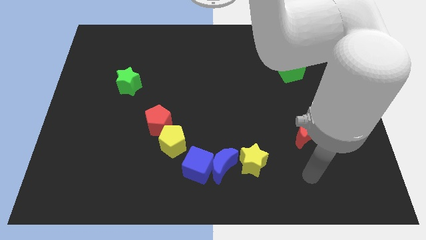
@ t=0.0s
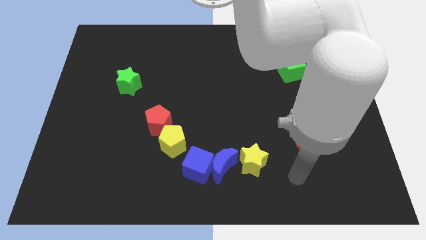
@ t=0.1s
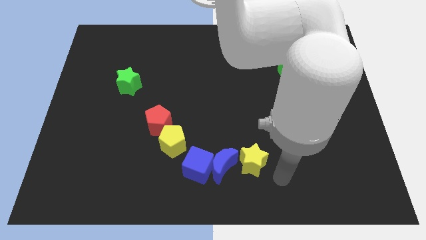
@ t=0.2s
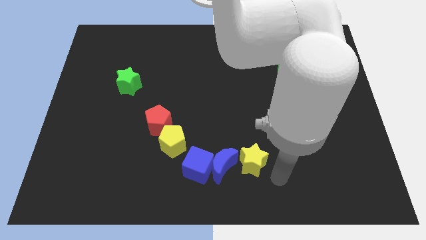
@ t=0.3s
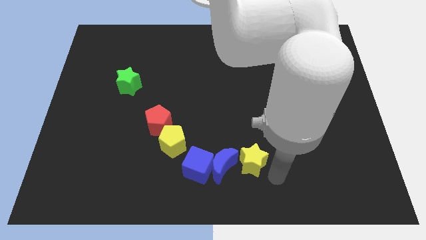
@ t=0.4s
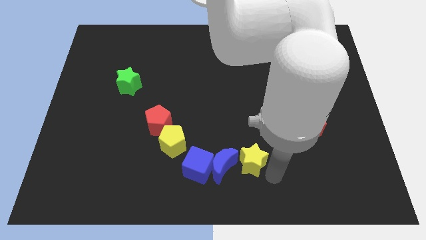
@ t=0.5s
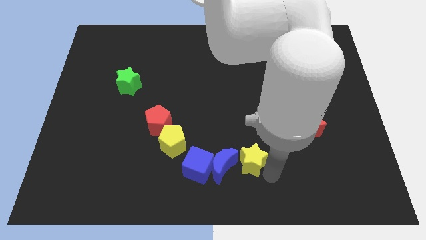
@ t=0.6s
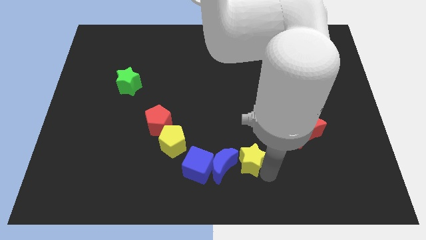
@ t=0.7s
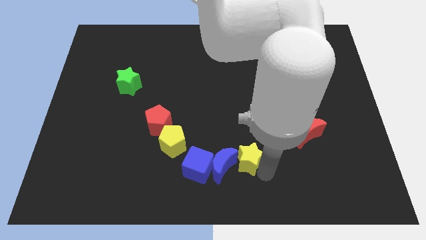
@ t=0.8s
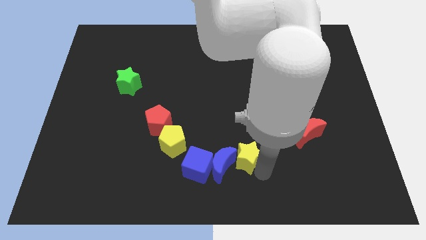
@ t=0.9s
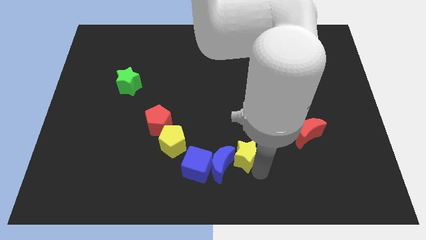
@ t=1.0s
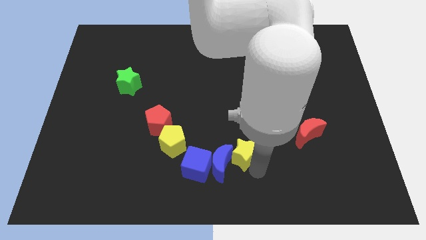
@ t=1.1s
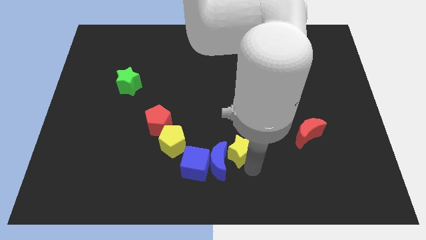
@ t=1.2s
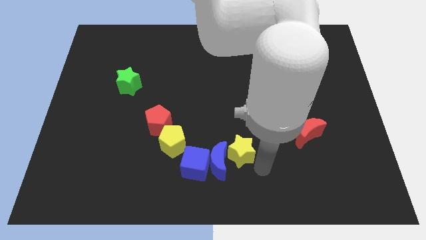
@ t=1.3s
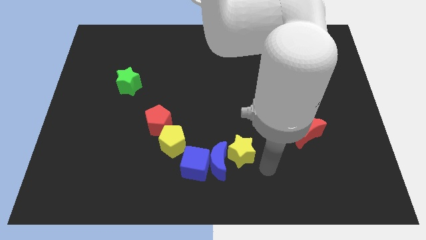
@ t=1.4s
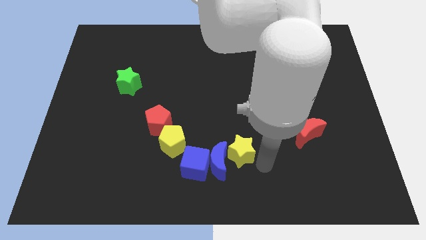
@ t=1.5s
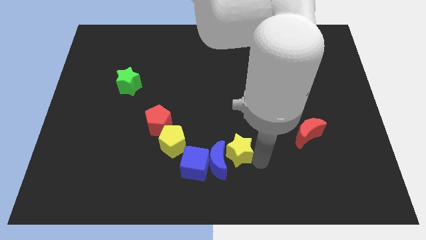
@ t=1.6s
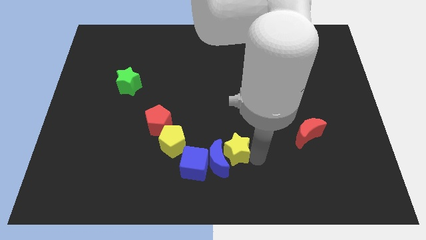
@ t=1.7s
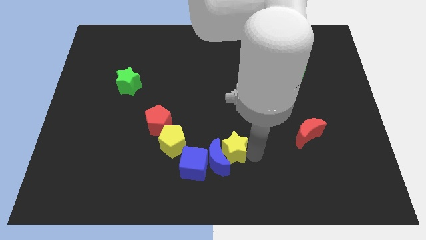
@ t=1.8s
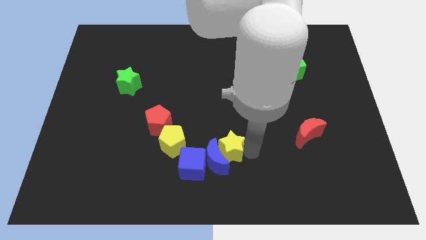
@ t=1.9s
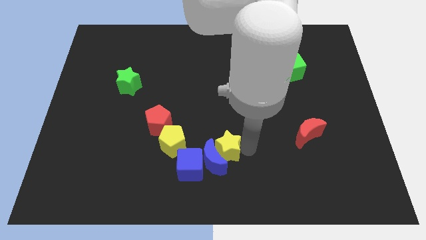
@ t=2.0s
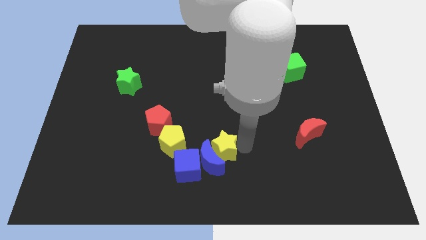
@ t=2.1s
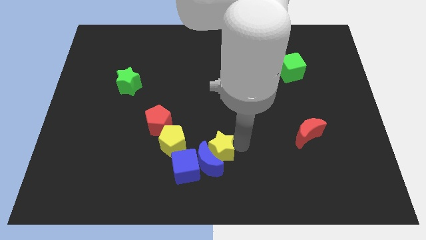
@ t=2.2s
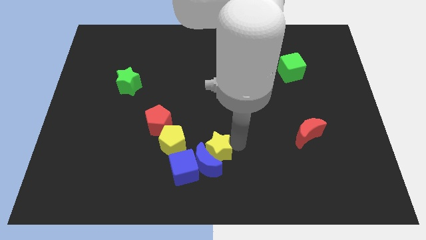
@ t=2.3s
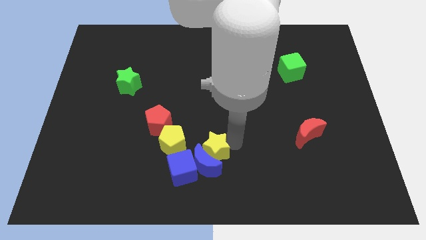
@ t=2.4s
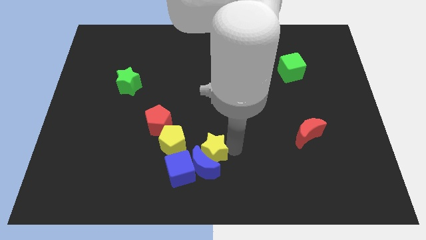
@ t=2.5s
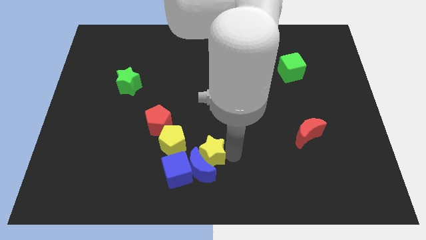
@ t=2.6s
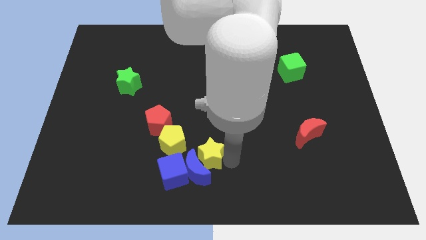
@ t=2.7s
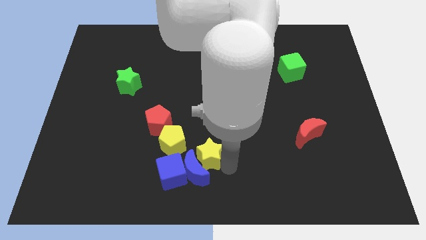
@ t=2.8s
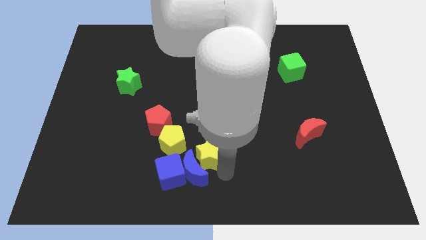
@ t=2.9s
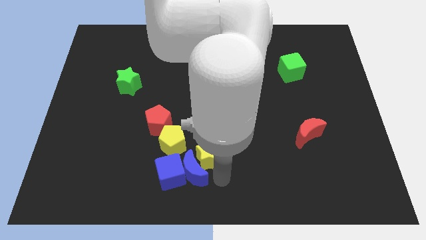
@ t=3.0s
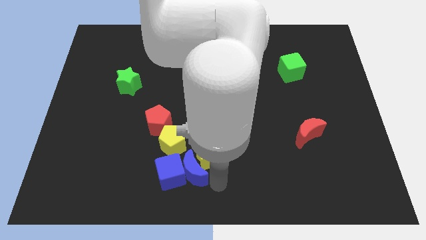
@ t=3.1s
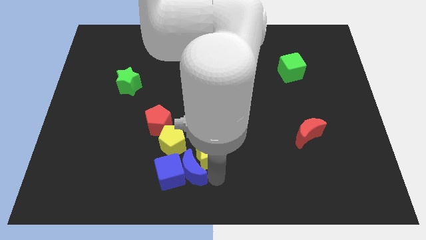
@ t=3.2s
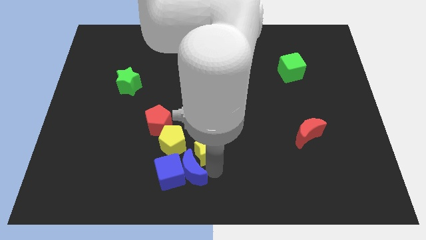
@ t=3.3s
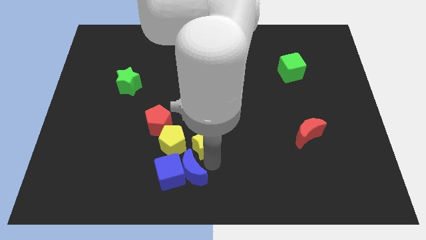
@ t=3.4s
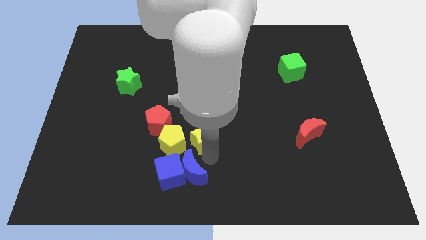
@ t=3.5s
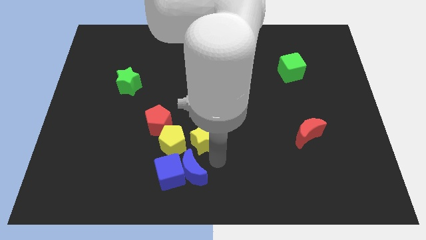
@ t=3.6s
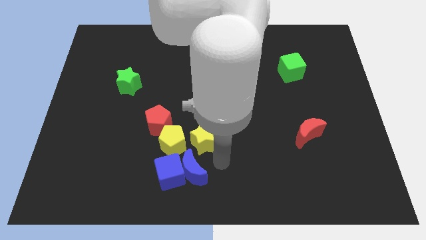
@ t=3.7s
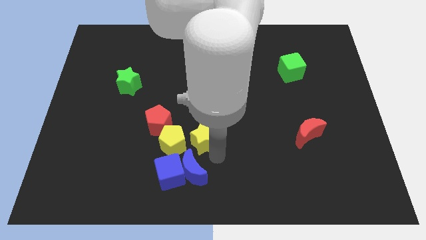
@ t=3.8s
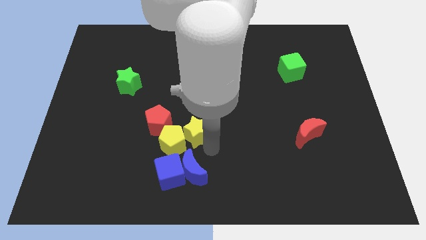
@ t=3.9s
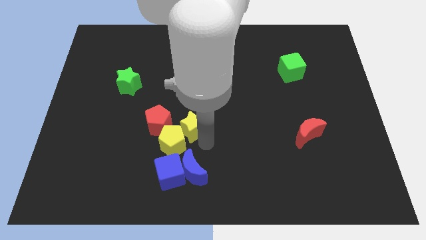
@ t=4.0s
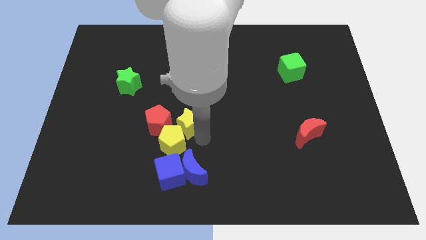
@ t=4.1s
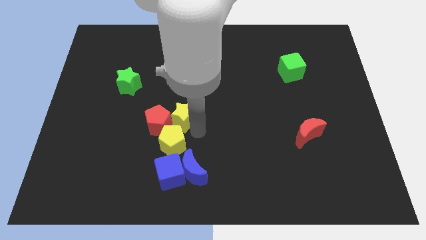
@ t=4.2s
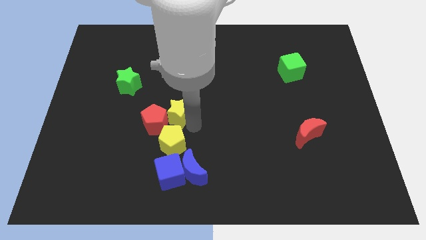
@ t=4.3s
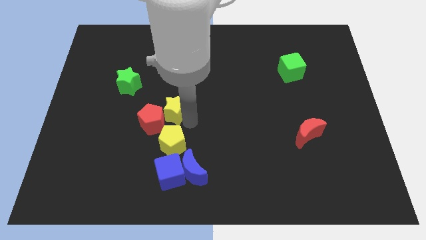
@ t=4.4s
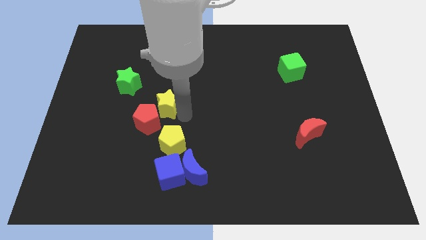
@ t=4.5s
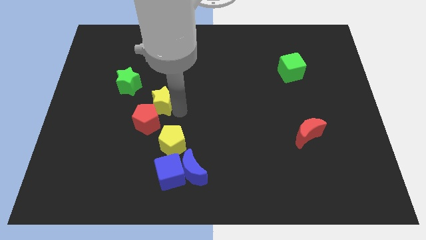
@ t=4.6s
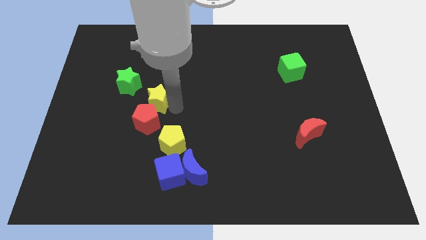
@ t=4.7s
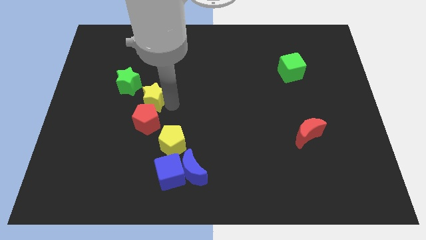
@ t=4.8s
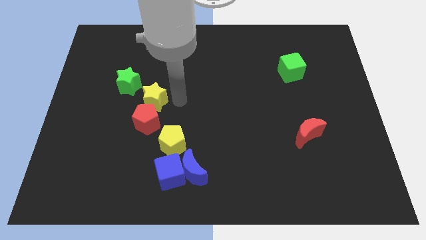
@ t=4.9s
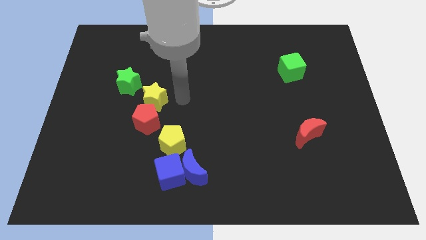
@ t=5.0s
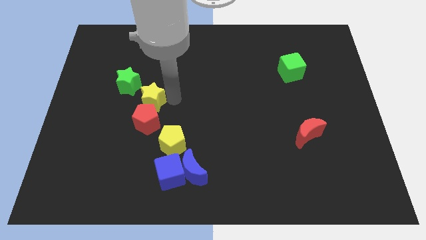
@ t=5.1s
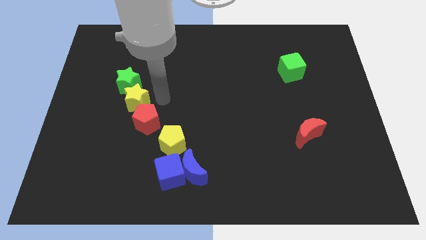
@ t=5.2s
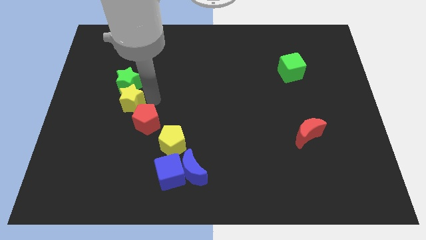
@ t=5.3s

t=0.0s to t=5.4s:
put the yellow star to the bottom left of the green star

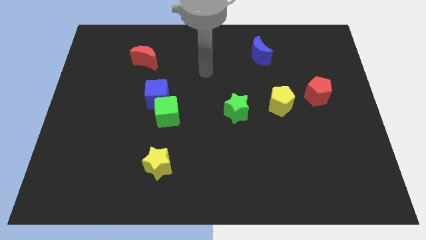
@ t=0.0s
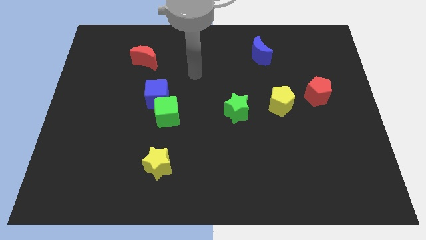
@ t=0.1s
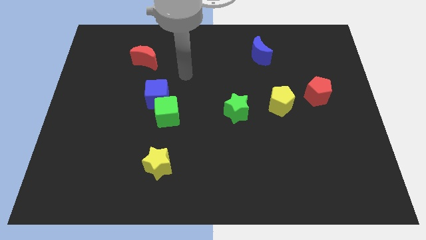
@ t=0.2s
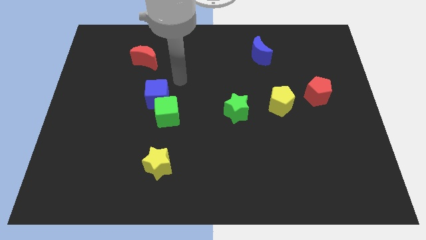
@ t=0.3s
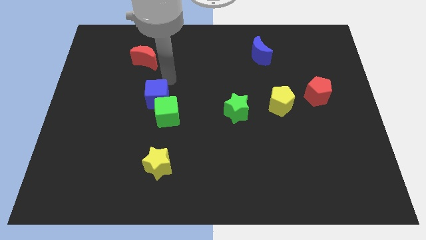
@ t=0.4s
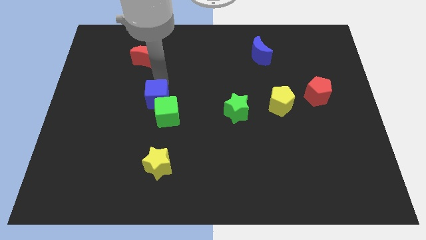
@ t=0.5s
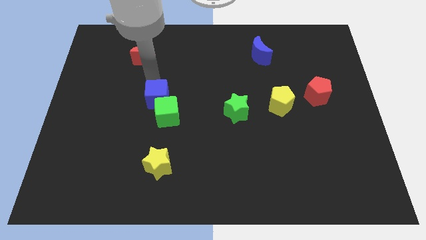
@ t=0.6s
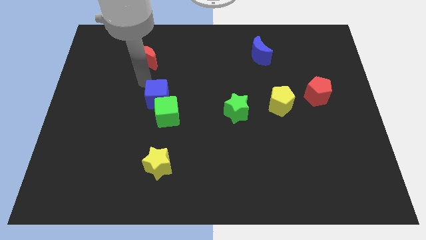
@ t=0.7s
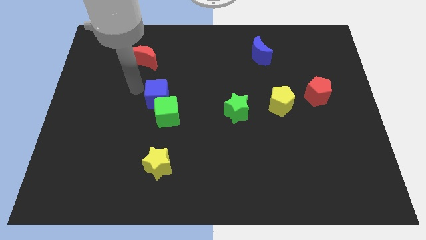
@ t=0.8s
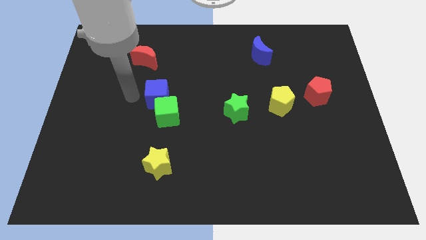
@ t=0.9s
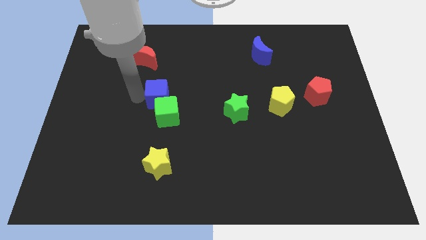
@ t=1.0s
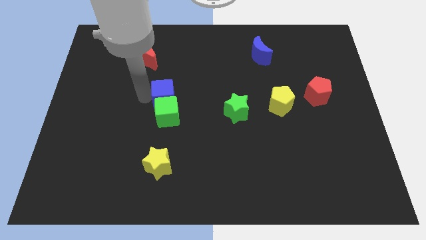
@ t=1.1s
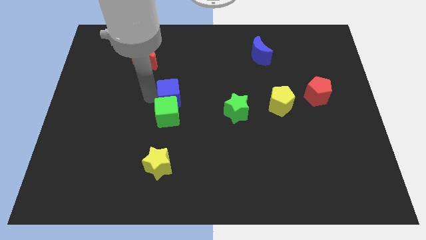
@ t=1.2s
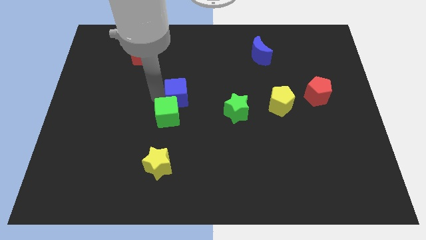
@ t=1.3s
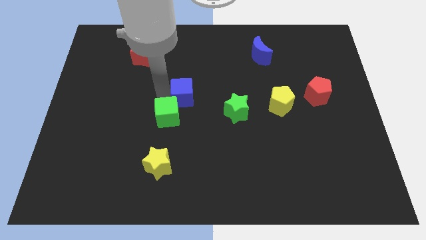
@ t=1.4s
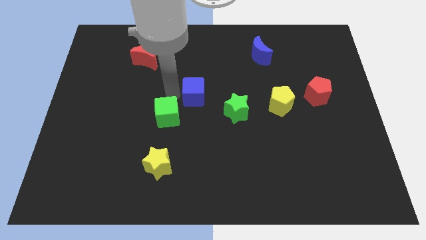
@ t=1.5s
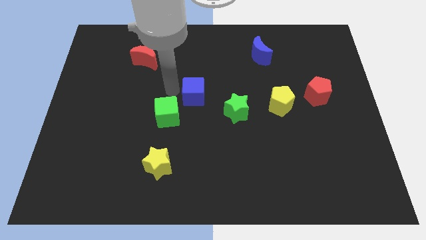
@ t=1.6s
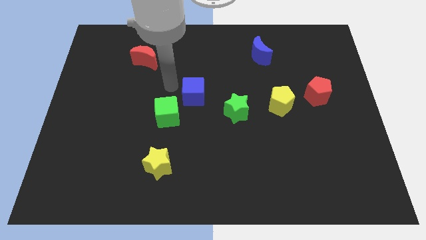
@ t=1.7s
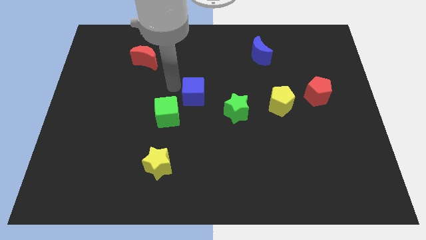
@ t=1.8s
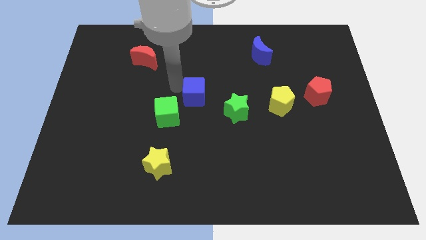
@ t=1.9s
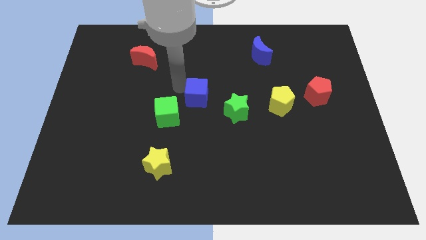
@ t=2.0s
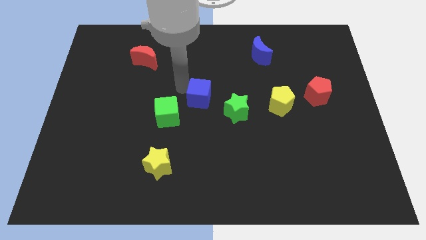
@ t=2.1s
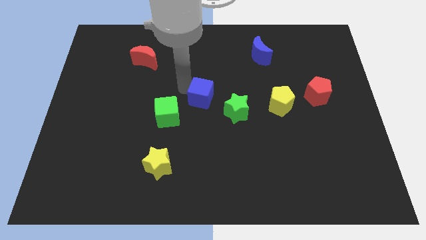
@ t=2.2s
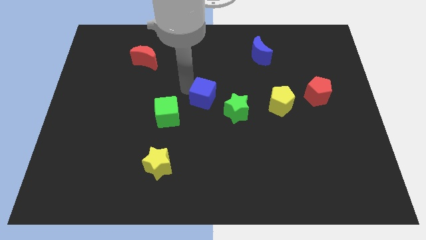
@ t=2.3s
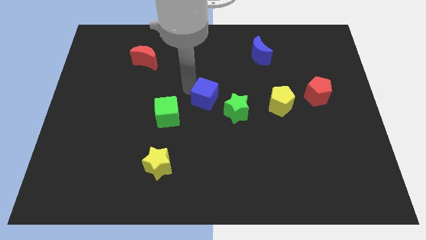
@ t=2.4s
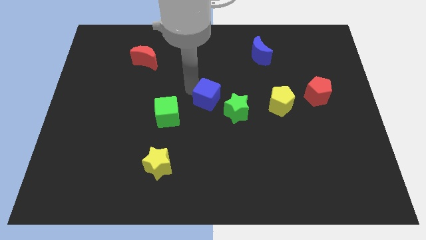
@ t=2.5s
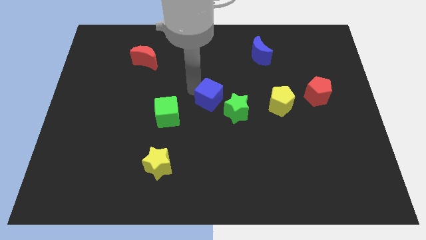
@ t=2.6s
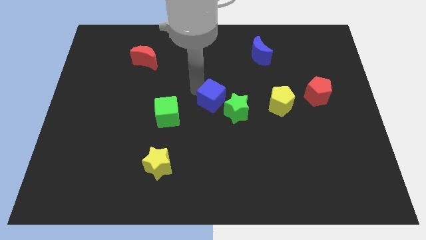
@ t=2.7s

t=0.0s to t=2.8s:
move the blue cube left of the yellow pentagon
